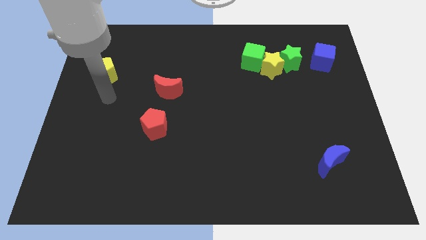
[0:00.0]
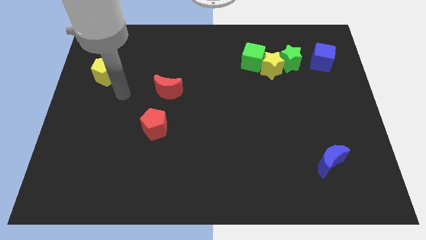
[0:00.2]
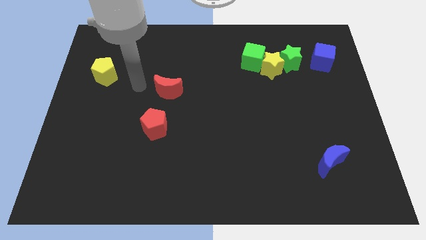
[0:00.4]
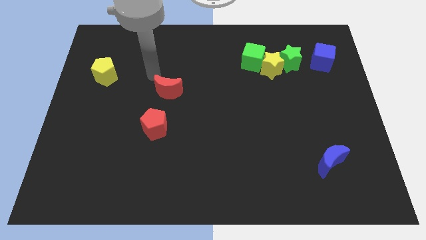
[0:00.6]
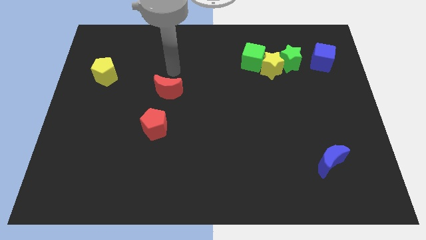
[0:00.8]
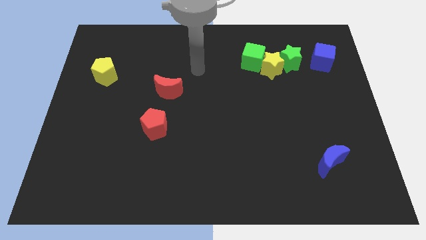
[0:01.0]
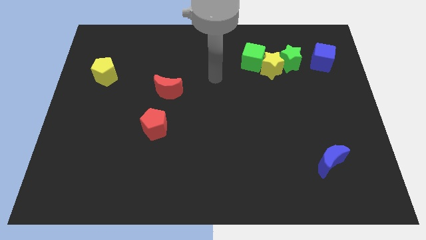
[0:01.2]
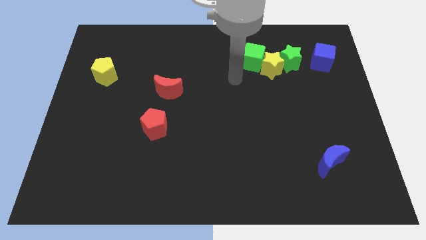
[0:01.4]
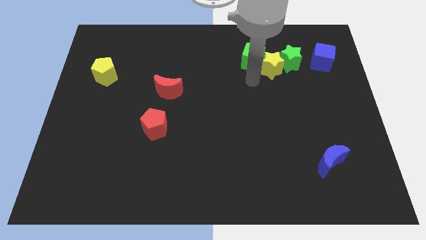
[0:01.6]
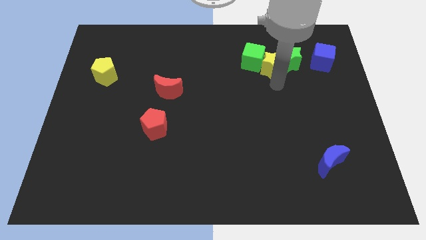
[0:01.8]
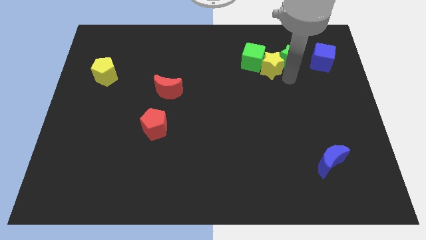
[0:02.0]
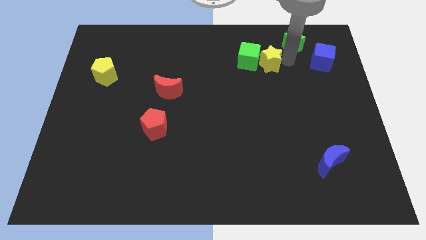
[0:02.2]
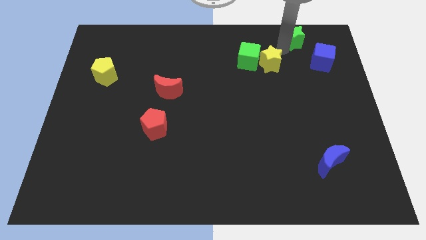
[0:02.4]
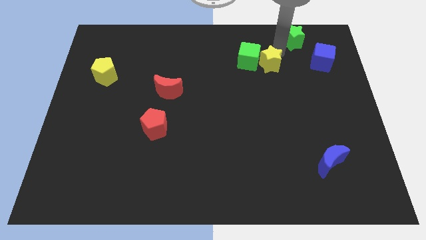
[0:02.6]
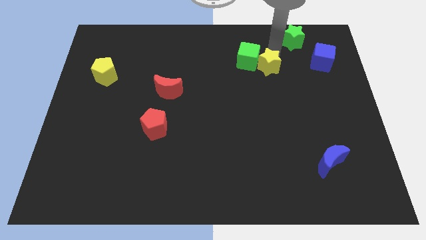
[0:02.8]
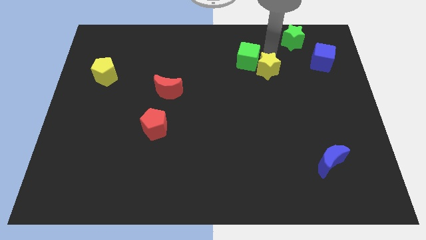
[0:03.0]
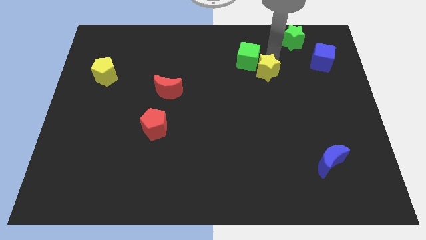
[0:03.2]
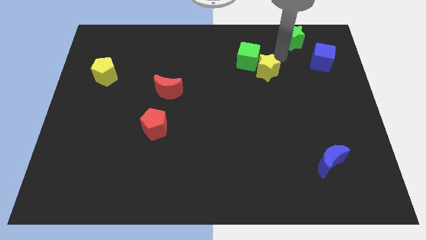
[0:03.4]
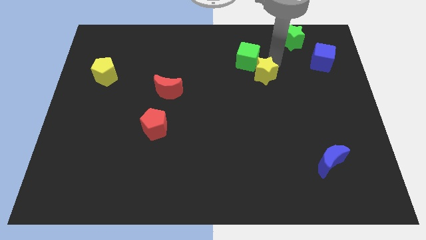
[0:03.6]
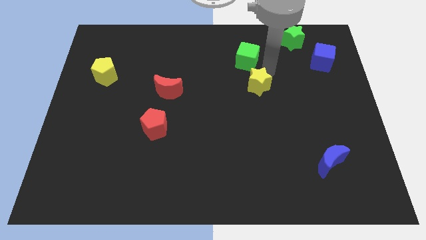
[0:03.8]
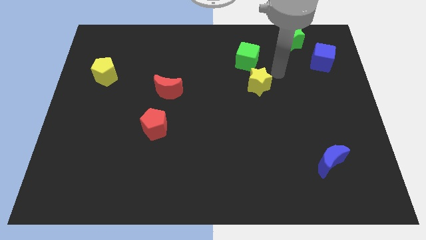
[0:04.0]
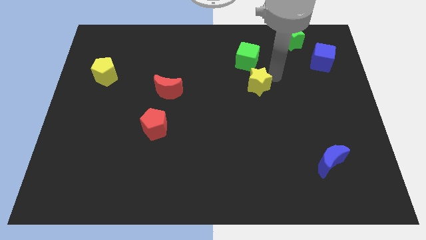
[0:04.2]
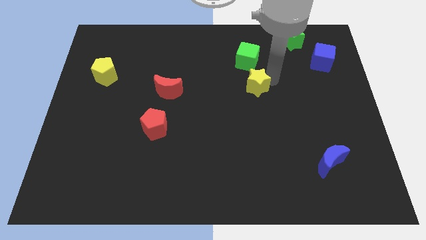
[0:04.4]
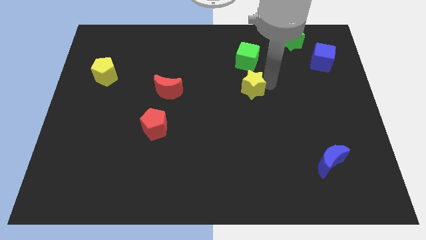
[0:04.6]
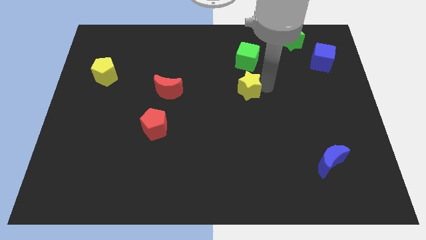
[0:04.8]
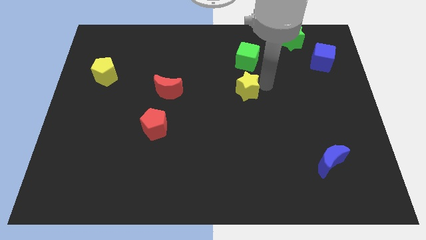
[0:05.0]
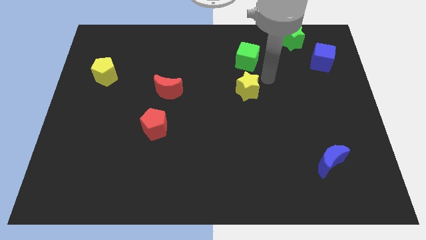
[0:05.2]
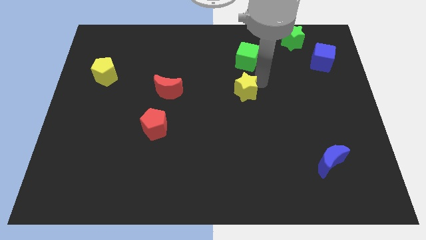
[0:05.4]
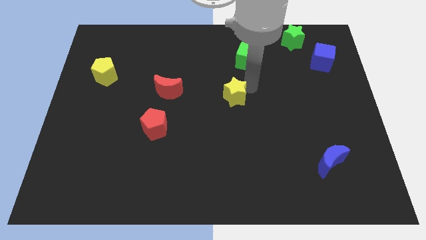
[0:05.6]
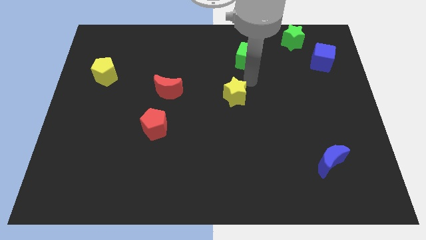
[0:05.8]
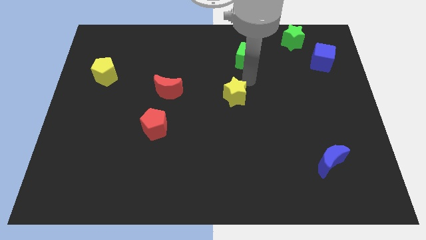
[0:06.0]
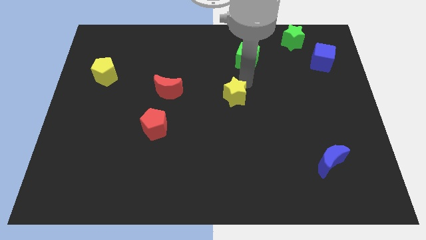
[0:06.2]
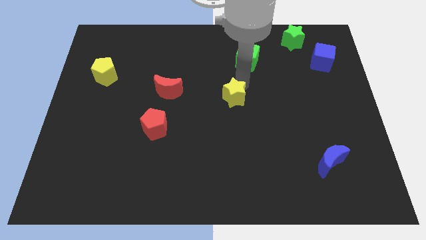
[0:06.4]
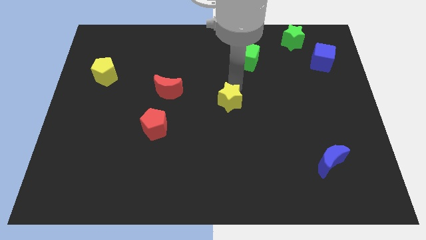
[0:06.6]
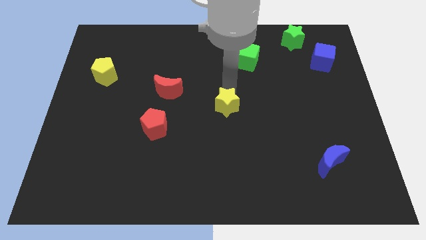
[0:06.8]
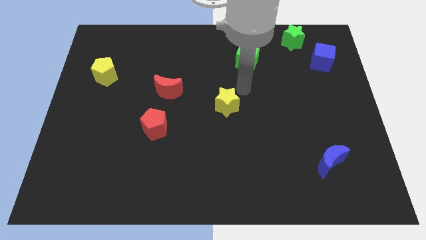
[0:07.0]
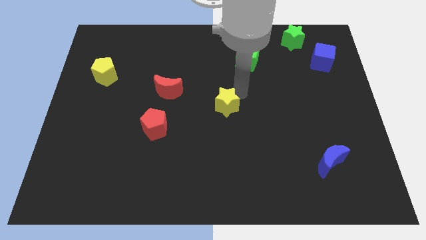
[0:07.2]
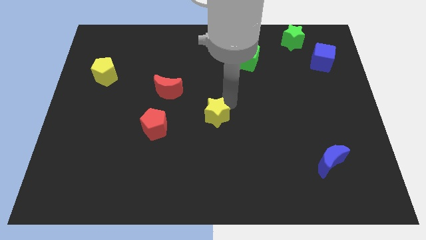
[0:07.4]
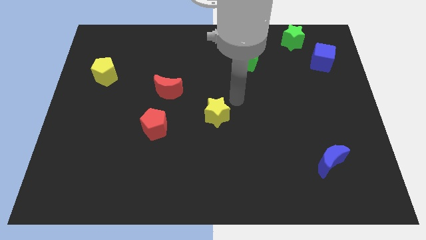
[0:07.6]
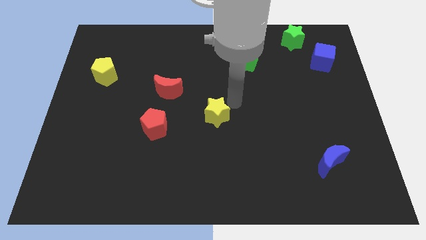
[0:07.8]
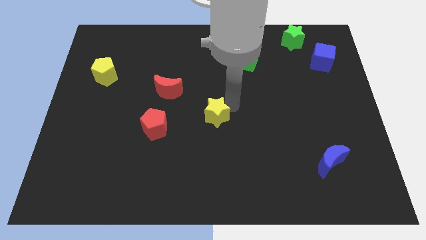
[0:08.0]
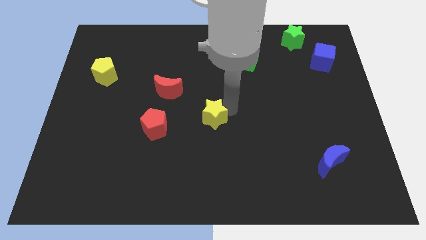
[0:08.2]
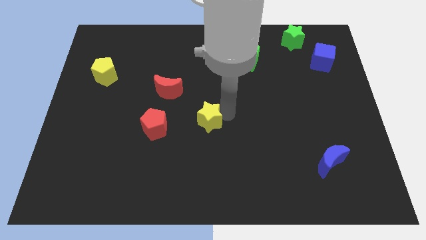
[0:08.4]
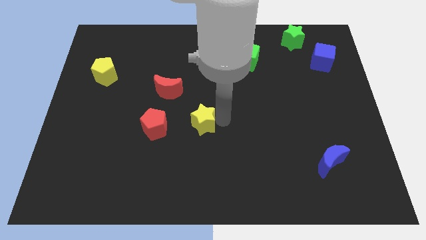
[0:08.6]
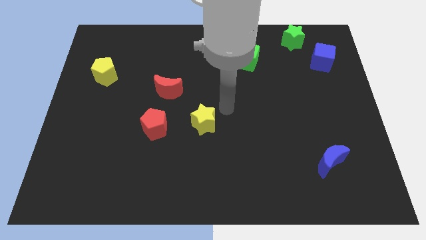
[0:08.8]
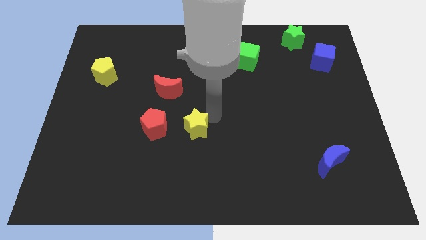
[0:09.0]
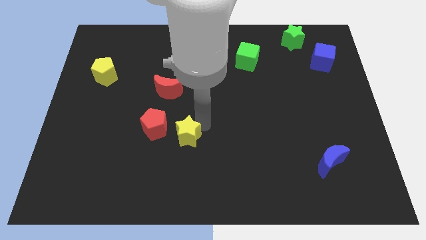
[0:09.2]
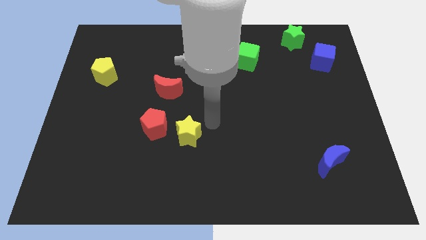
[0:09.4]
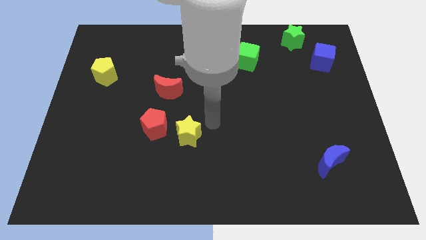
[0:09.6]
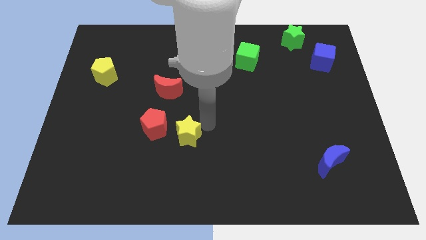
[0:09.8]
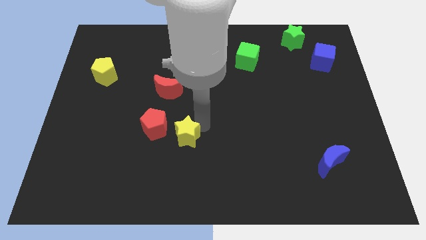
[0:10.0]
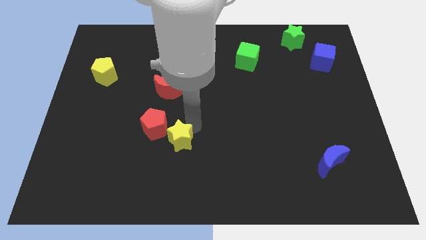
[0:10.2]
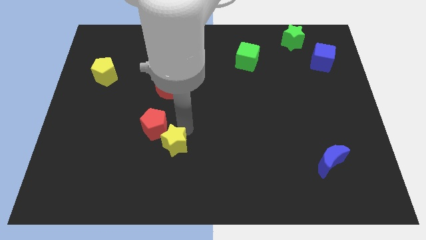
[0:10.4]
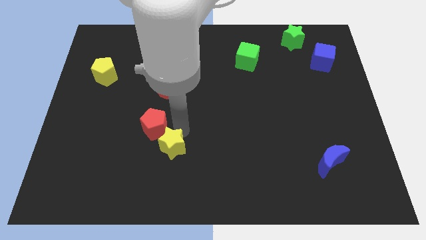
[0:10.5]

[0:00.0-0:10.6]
slide the yellow star to the bottom of the red pentagon

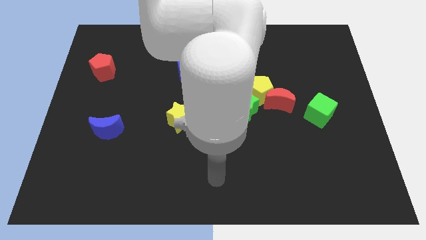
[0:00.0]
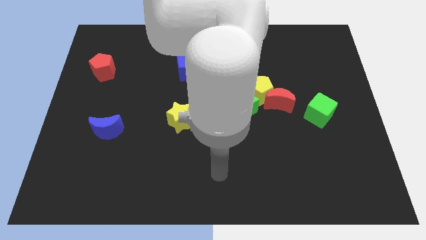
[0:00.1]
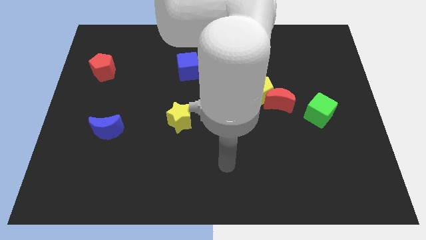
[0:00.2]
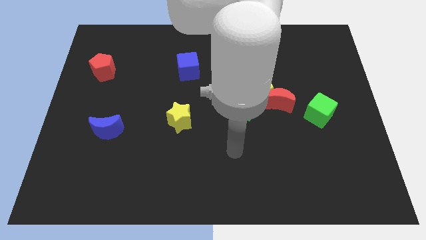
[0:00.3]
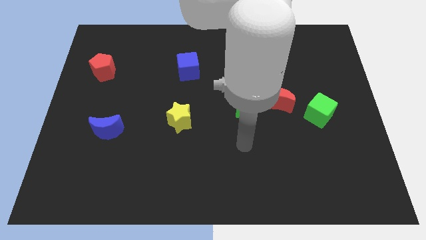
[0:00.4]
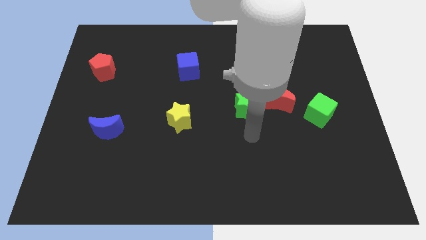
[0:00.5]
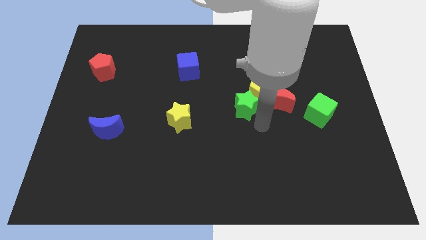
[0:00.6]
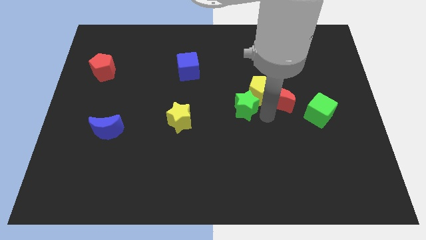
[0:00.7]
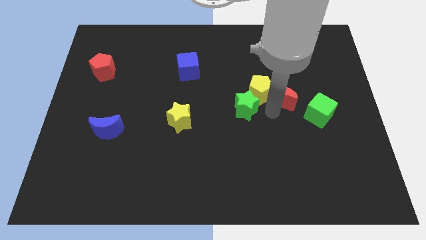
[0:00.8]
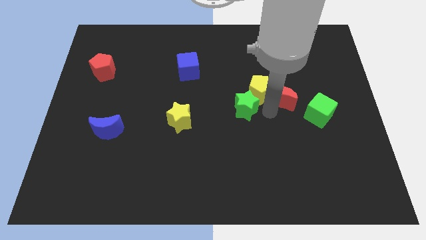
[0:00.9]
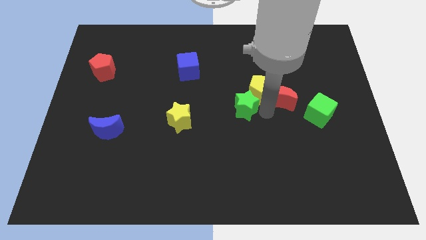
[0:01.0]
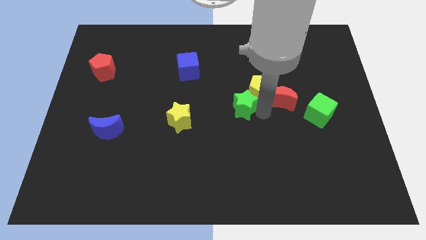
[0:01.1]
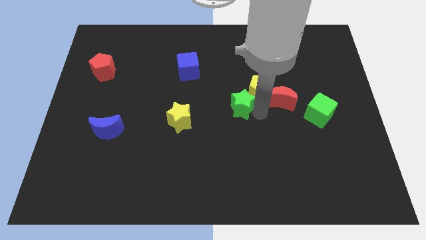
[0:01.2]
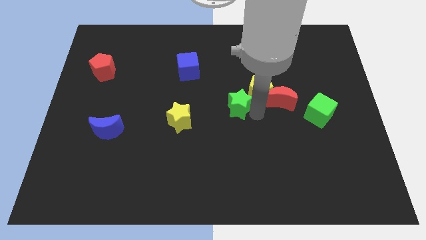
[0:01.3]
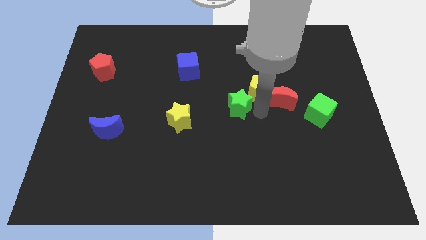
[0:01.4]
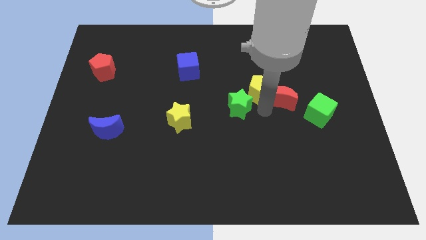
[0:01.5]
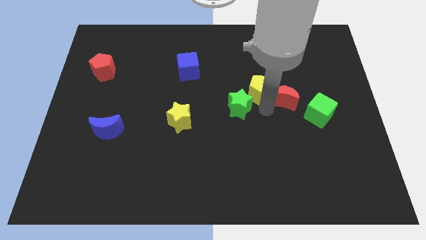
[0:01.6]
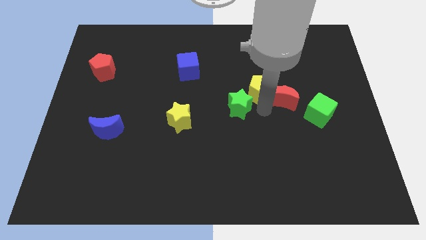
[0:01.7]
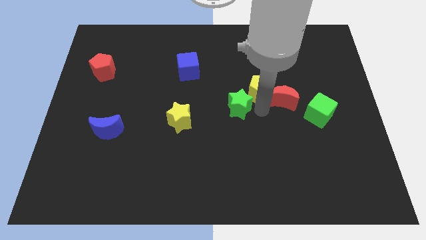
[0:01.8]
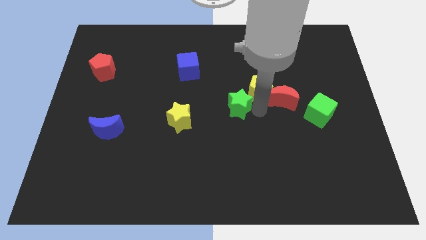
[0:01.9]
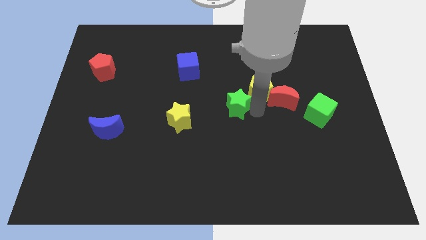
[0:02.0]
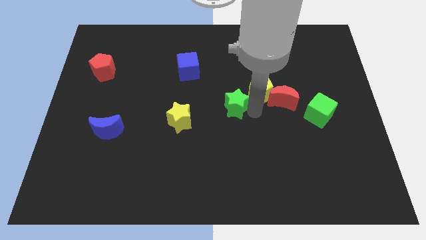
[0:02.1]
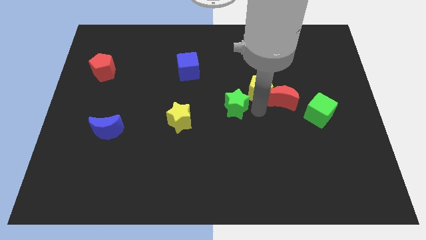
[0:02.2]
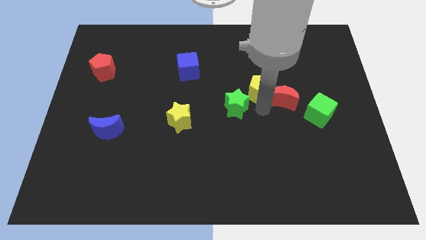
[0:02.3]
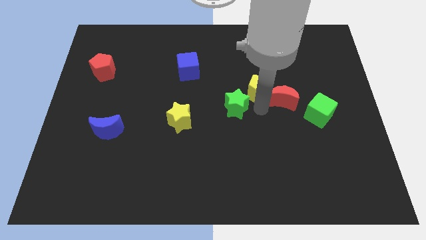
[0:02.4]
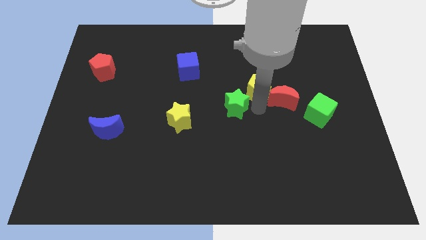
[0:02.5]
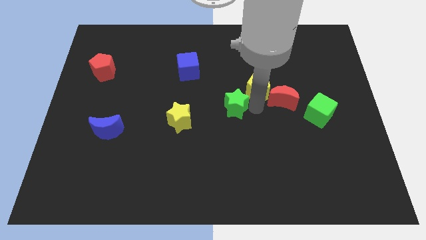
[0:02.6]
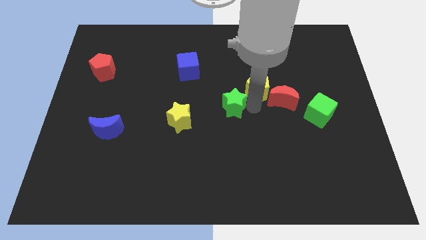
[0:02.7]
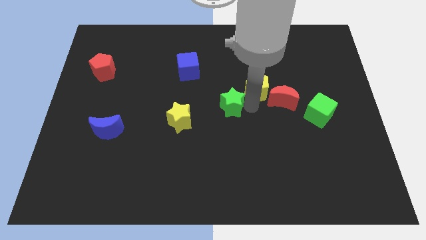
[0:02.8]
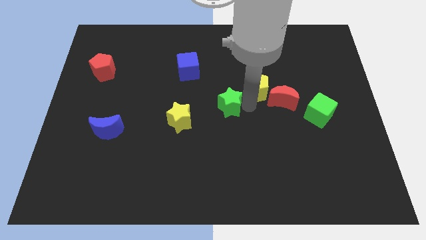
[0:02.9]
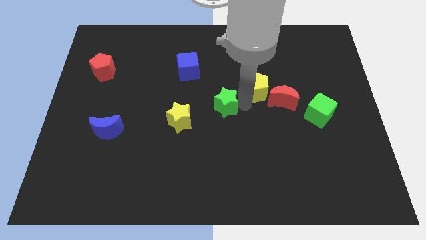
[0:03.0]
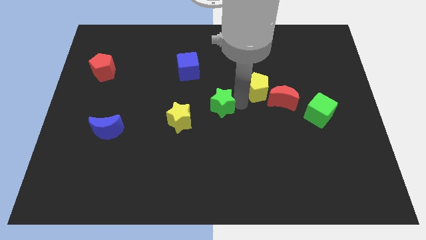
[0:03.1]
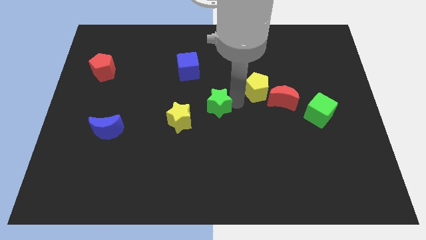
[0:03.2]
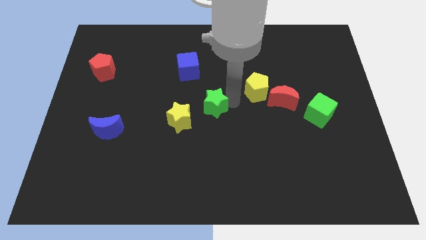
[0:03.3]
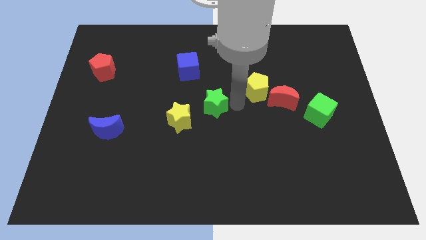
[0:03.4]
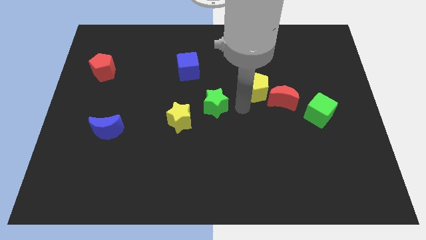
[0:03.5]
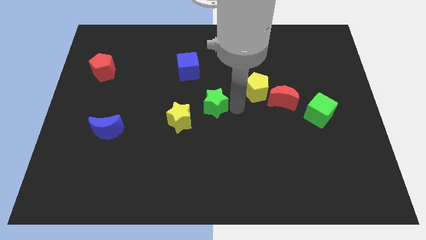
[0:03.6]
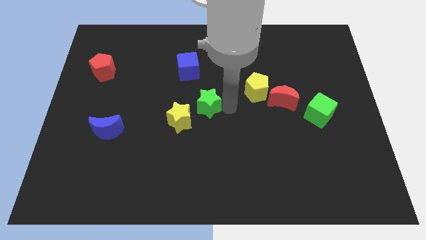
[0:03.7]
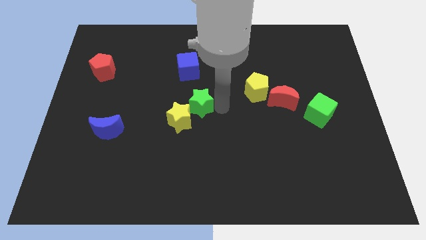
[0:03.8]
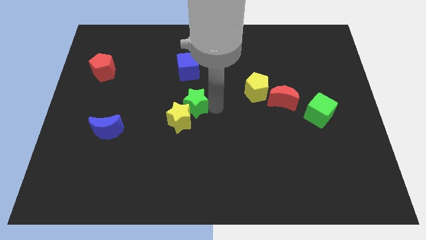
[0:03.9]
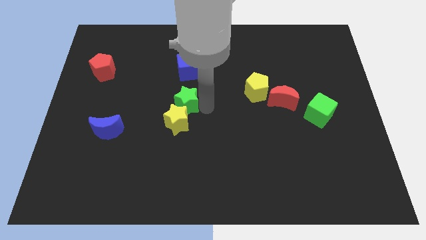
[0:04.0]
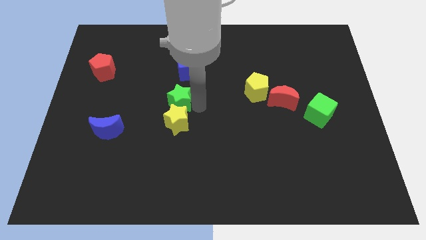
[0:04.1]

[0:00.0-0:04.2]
move the green star diagonally up and to the left of the yellow star
